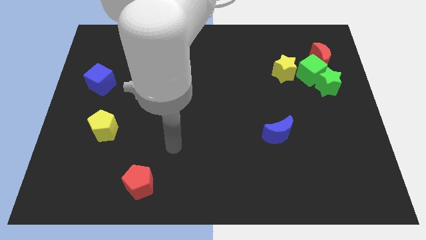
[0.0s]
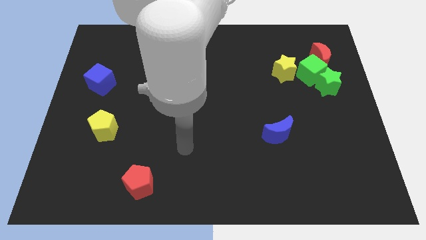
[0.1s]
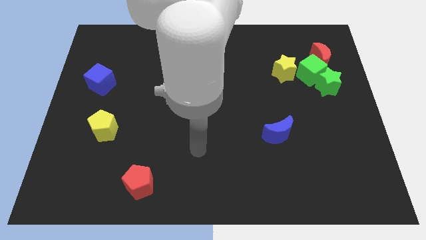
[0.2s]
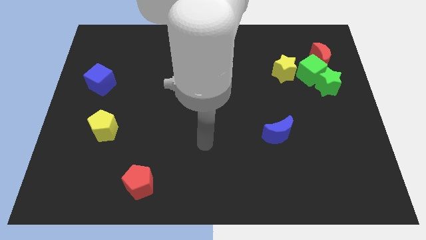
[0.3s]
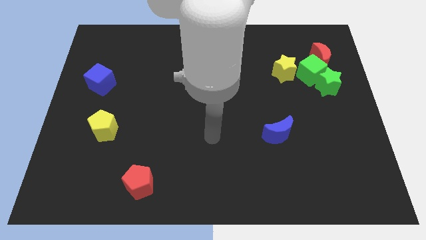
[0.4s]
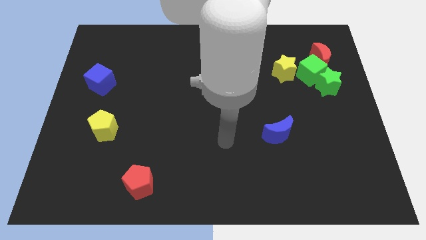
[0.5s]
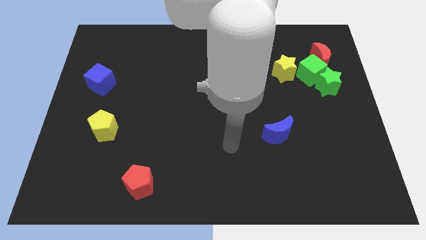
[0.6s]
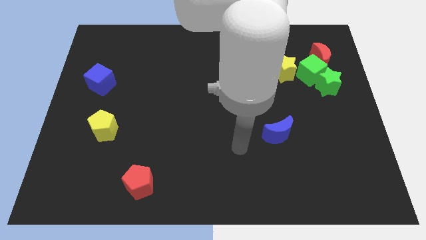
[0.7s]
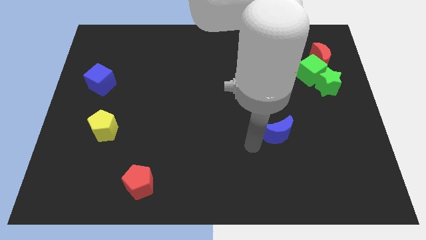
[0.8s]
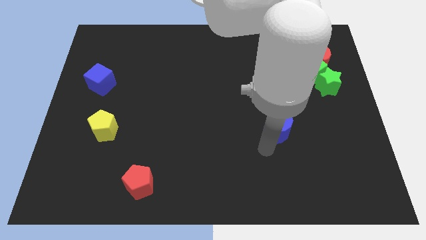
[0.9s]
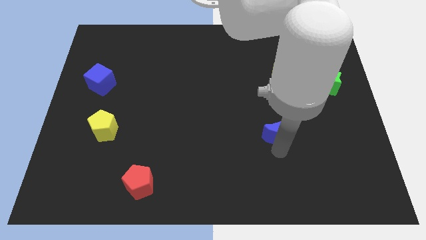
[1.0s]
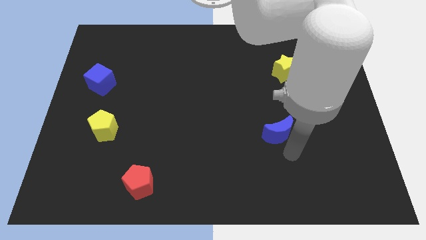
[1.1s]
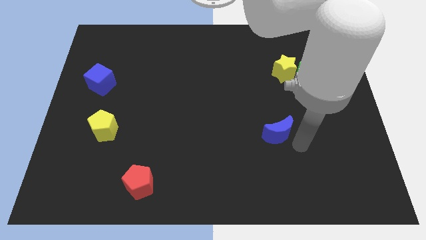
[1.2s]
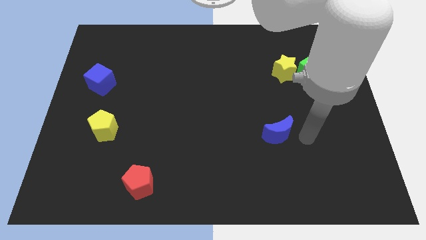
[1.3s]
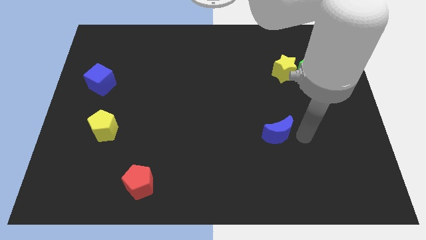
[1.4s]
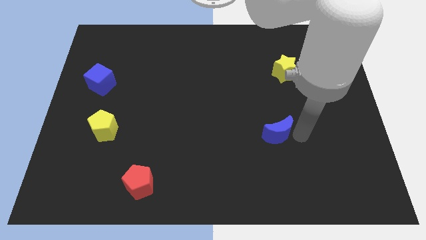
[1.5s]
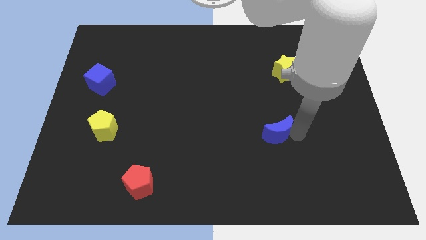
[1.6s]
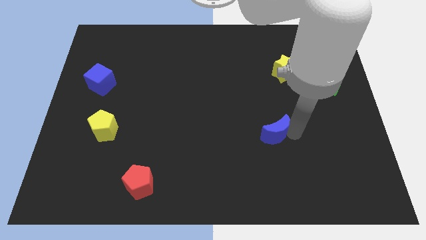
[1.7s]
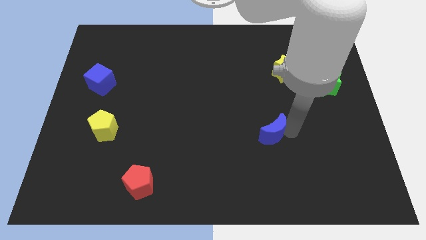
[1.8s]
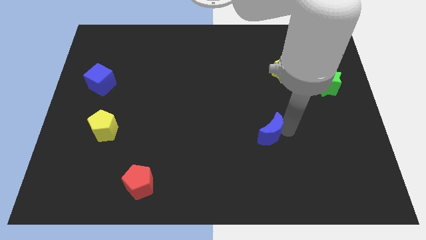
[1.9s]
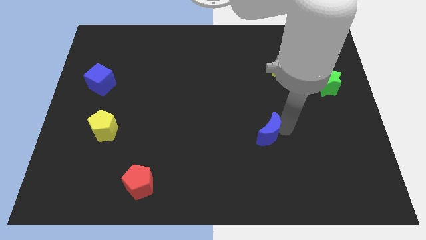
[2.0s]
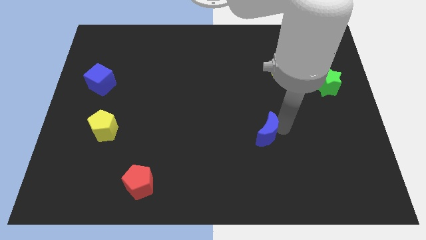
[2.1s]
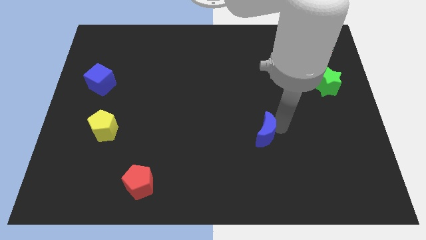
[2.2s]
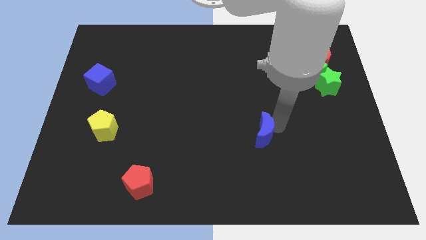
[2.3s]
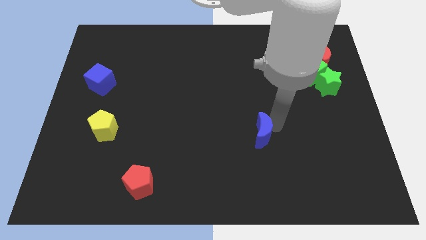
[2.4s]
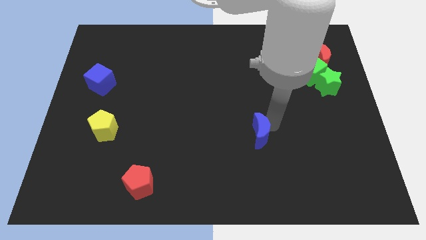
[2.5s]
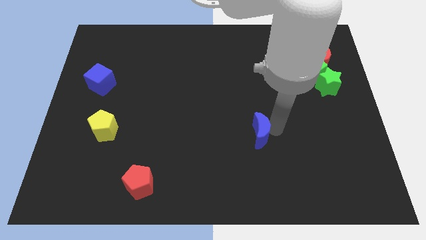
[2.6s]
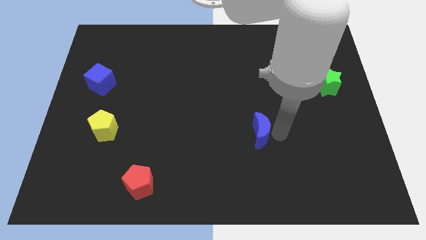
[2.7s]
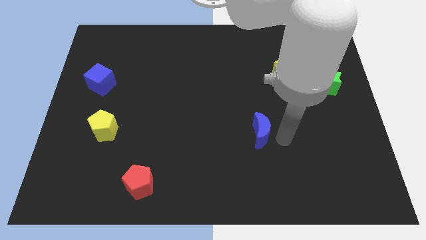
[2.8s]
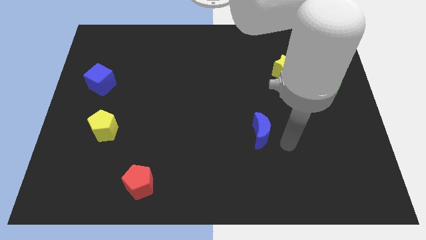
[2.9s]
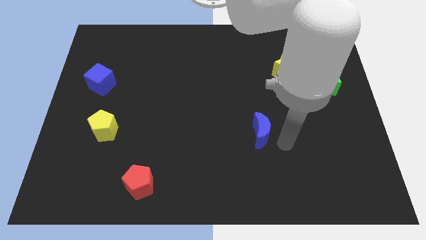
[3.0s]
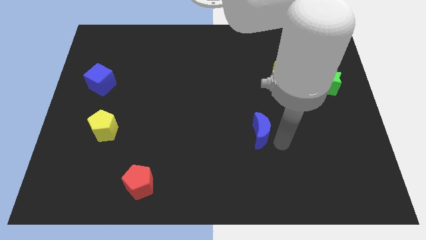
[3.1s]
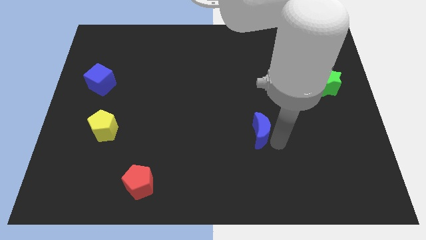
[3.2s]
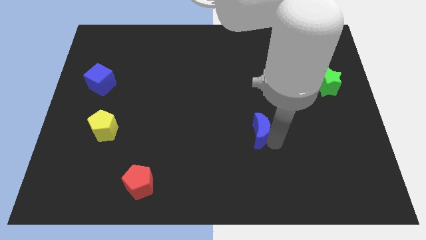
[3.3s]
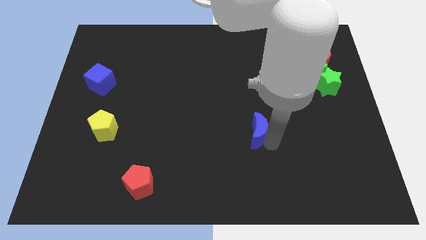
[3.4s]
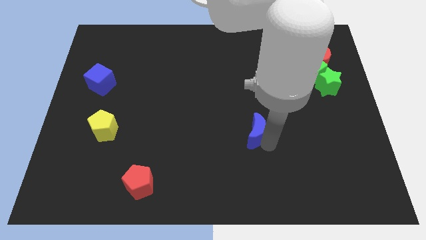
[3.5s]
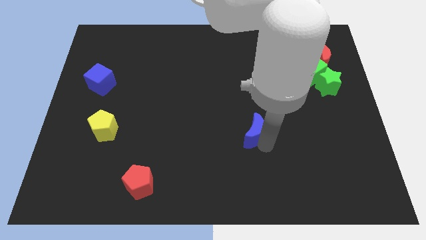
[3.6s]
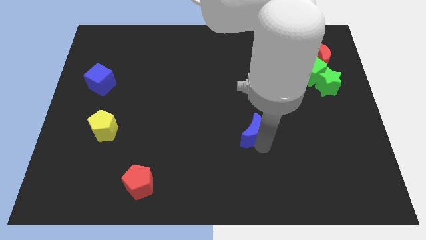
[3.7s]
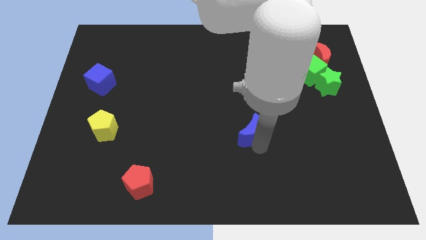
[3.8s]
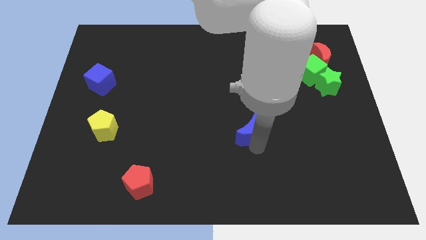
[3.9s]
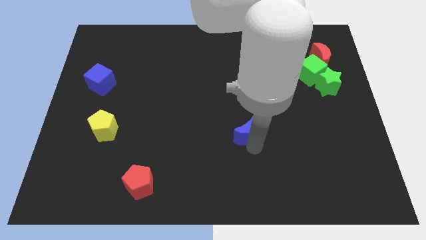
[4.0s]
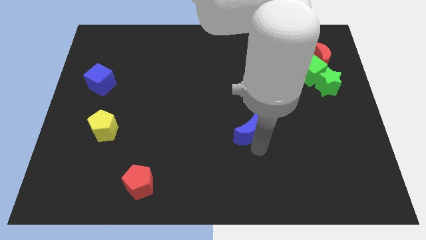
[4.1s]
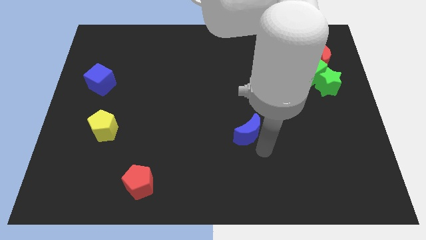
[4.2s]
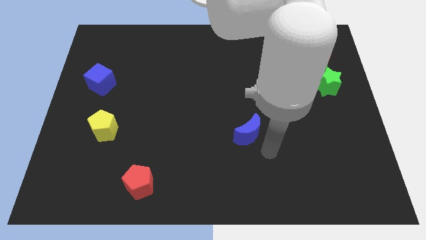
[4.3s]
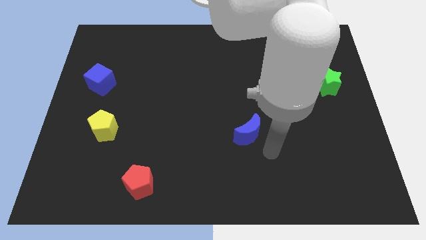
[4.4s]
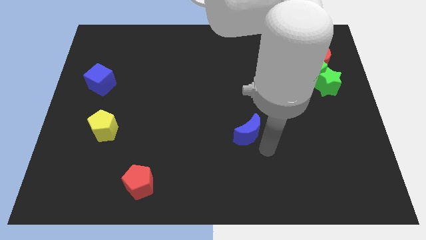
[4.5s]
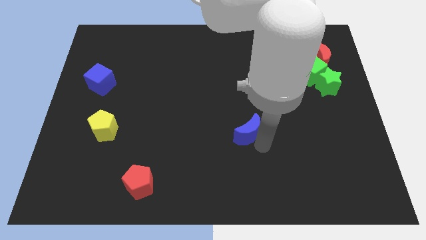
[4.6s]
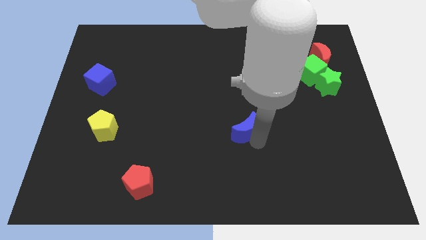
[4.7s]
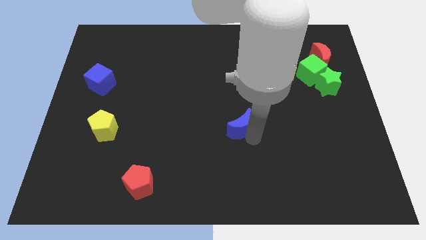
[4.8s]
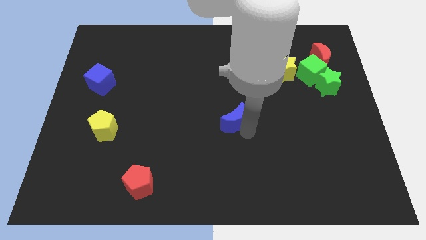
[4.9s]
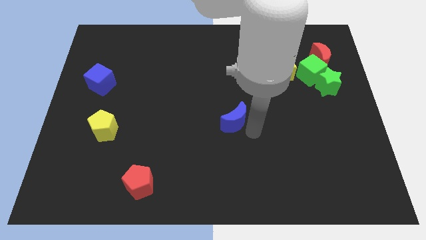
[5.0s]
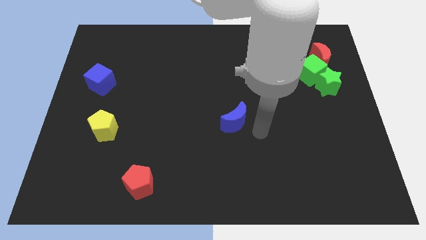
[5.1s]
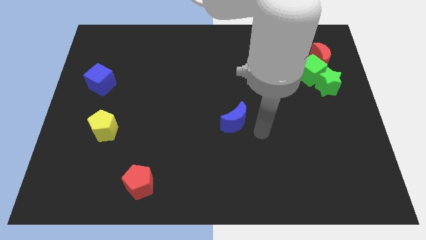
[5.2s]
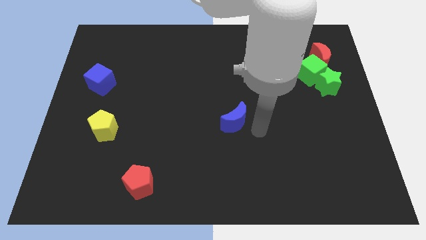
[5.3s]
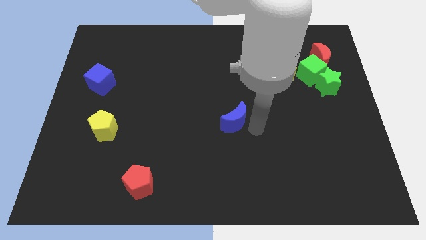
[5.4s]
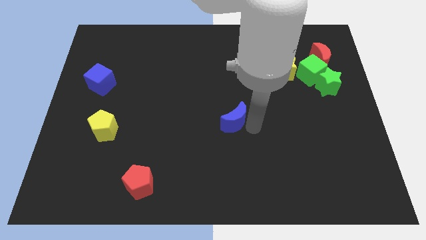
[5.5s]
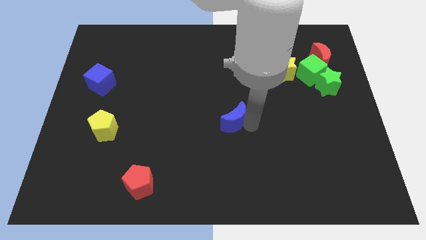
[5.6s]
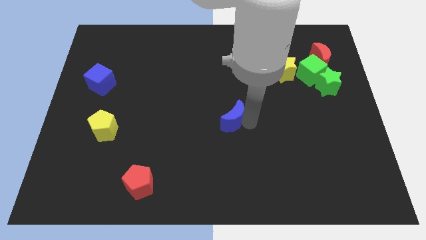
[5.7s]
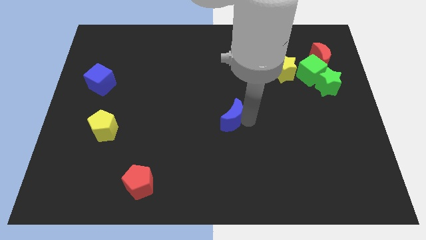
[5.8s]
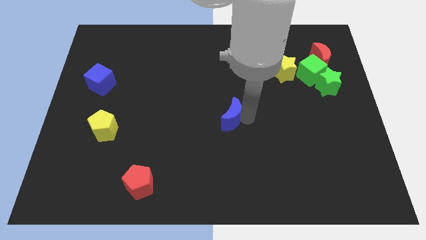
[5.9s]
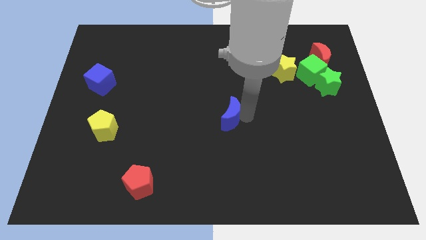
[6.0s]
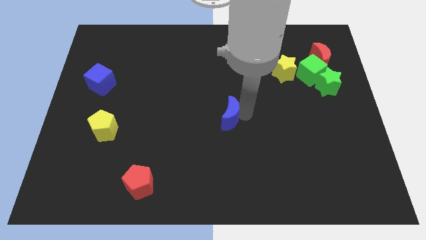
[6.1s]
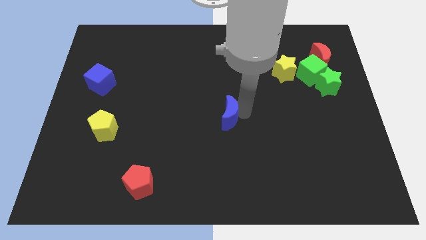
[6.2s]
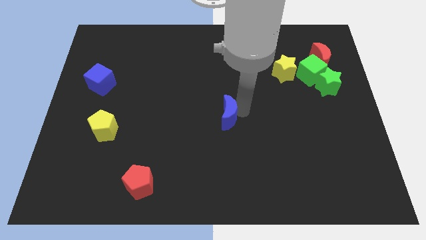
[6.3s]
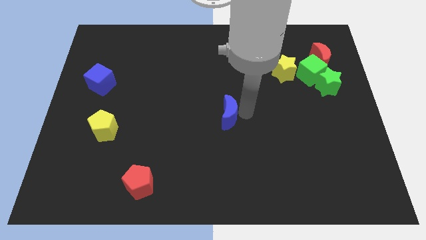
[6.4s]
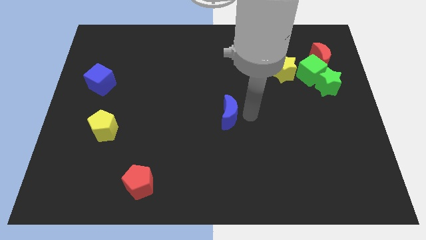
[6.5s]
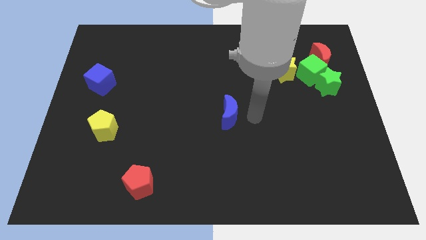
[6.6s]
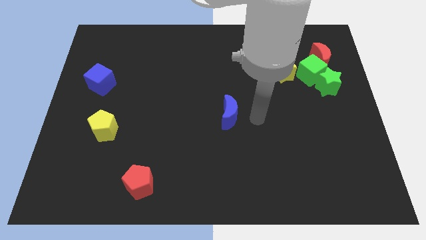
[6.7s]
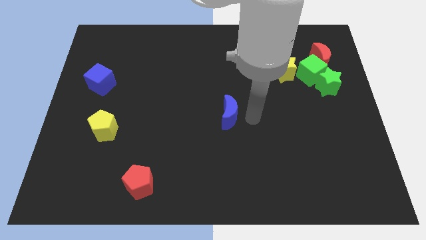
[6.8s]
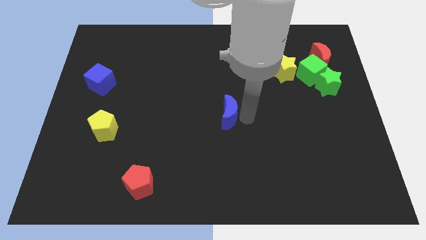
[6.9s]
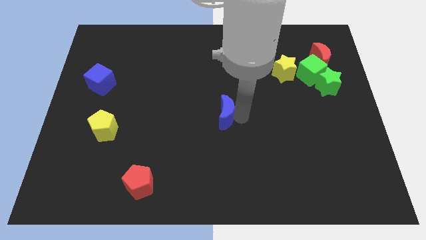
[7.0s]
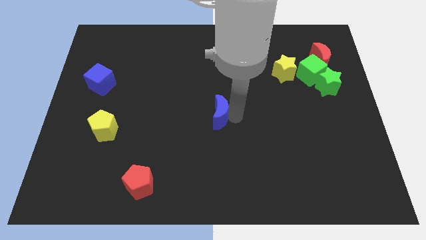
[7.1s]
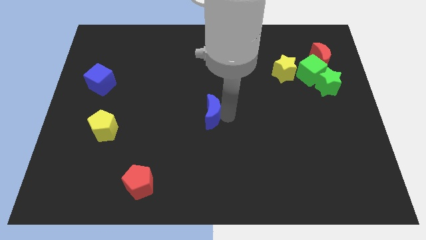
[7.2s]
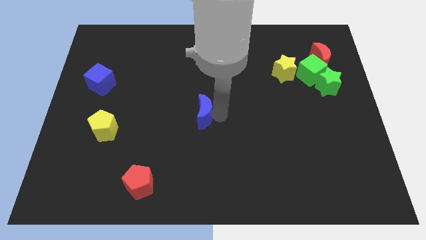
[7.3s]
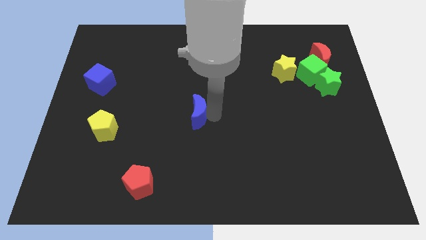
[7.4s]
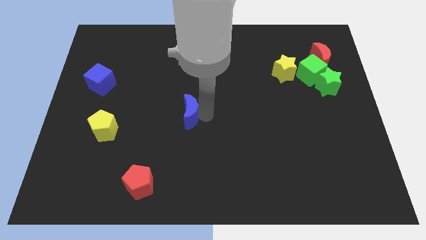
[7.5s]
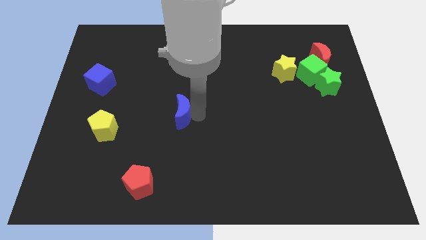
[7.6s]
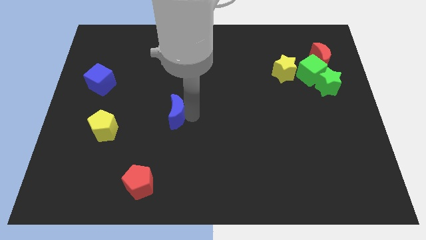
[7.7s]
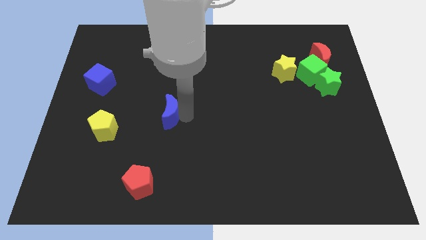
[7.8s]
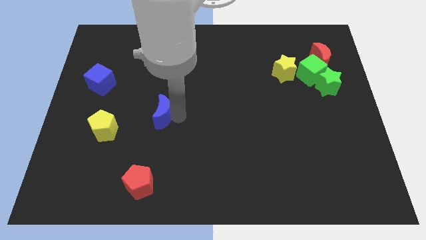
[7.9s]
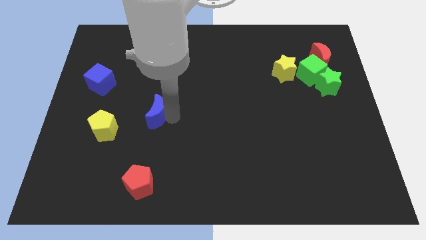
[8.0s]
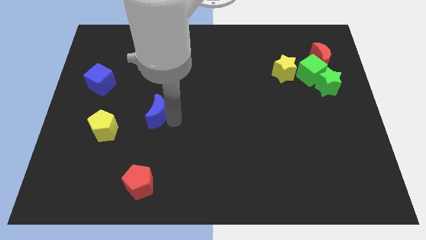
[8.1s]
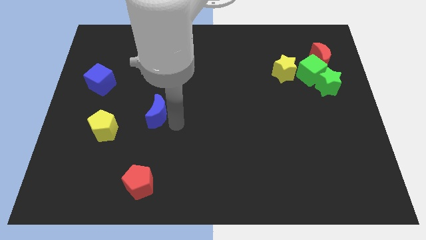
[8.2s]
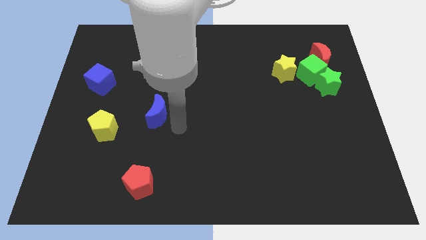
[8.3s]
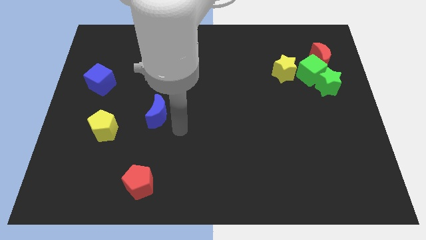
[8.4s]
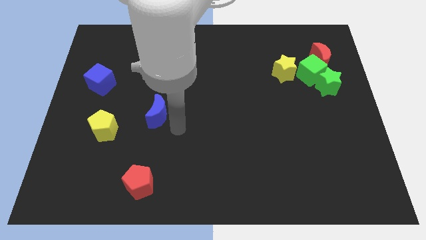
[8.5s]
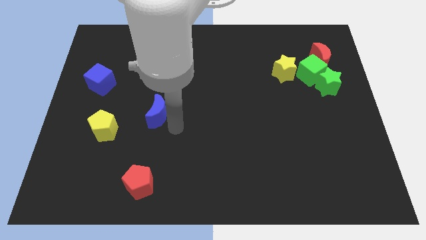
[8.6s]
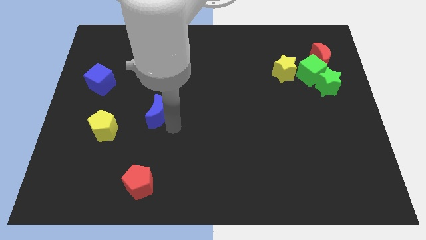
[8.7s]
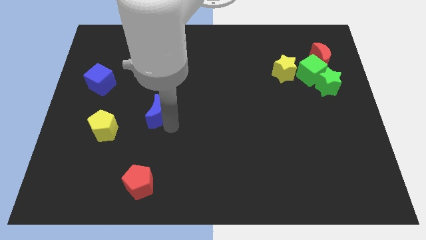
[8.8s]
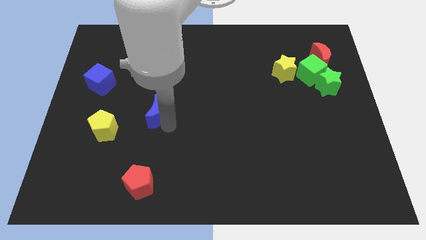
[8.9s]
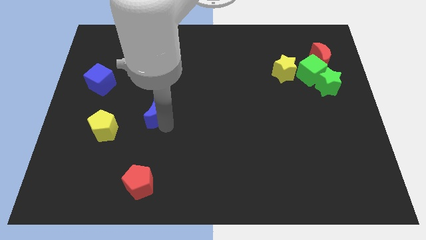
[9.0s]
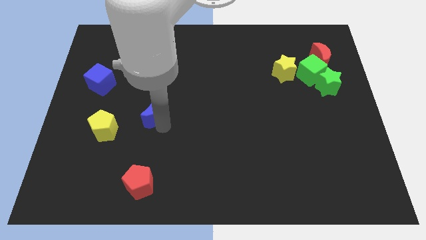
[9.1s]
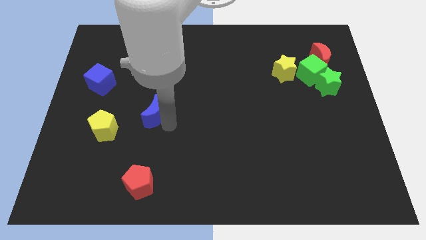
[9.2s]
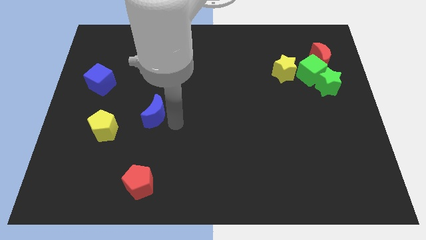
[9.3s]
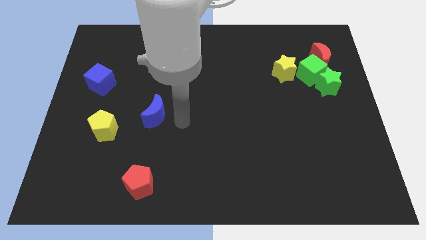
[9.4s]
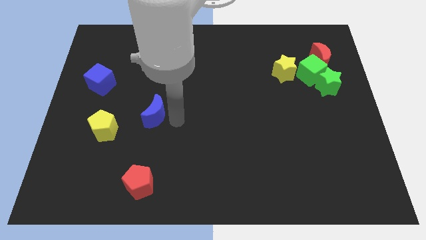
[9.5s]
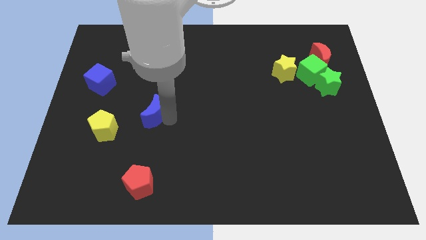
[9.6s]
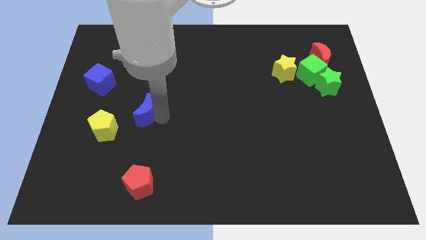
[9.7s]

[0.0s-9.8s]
move the blue moon to the top right side of the yellow pentagon
